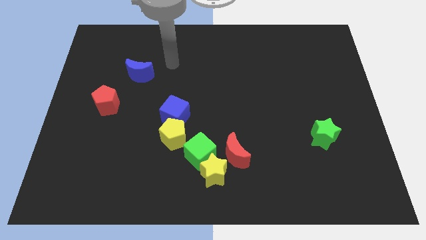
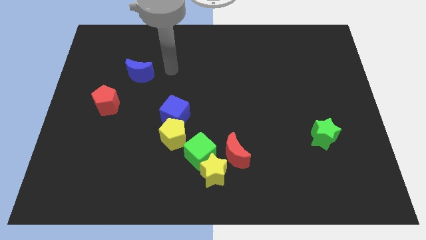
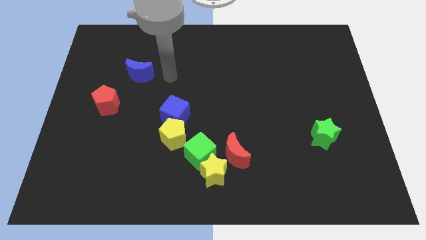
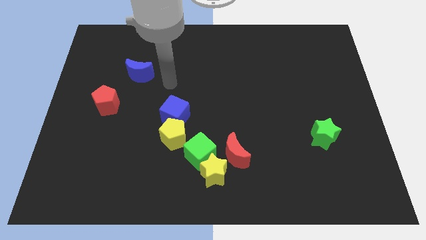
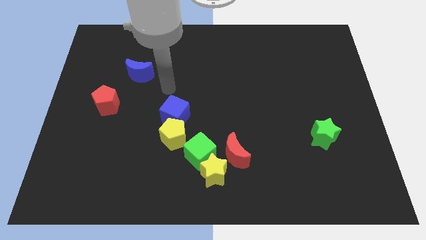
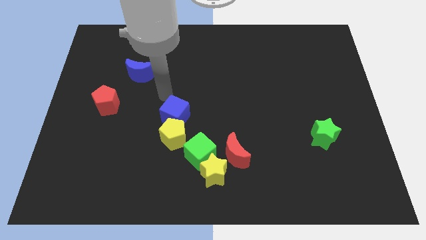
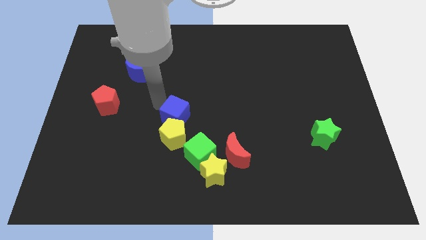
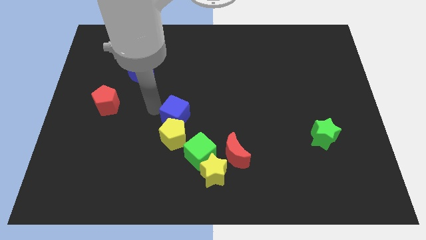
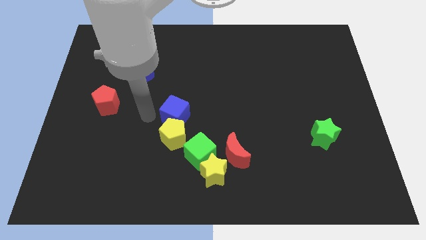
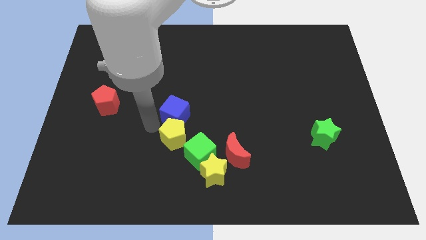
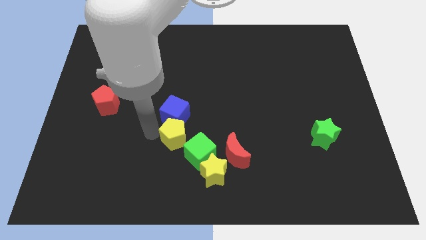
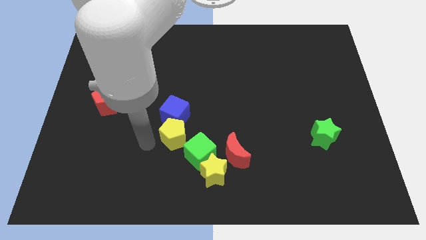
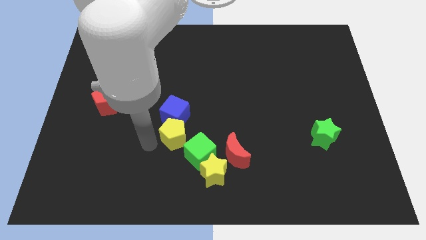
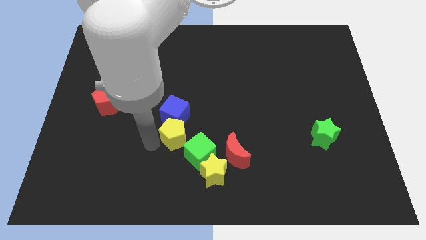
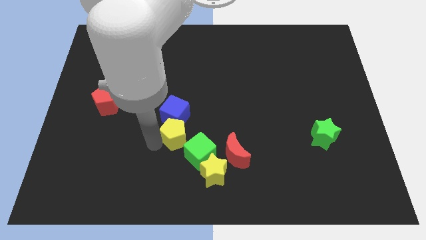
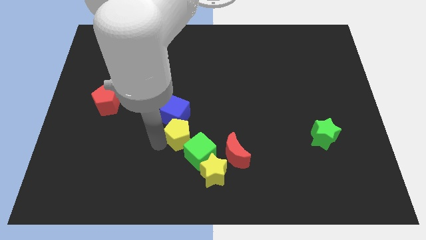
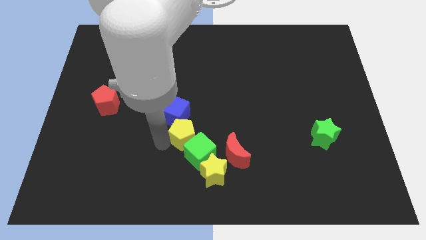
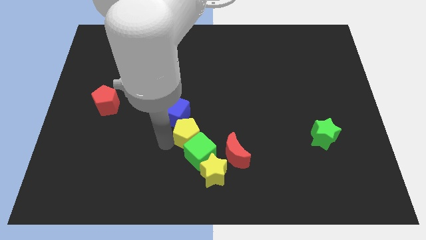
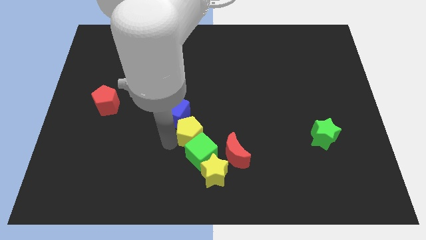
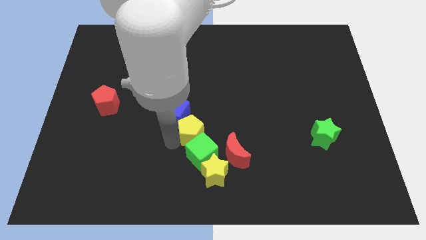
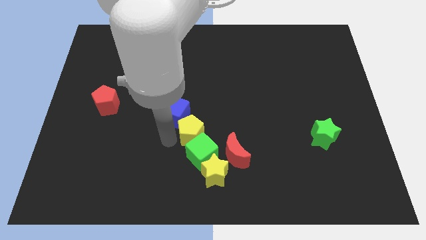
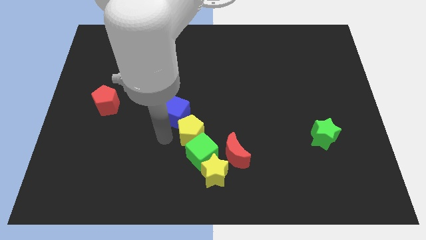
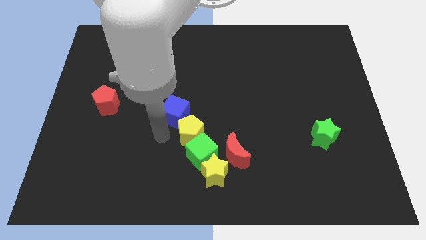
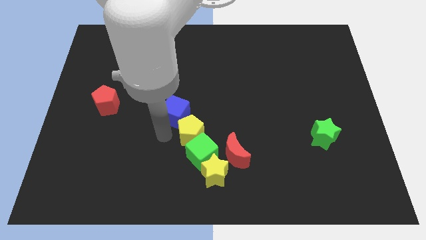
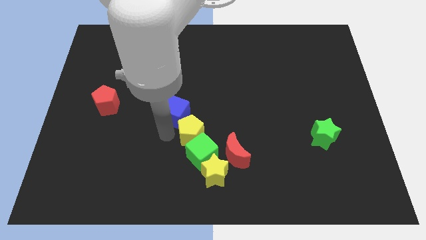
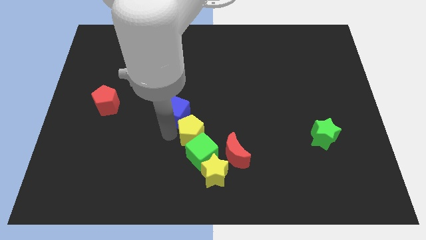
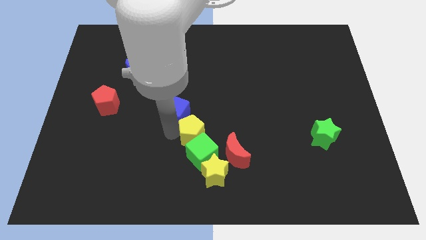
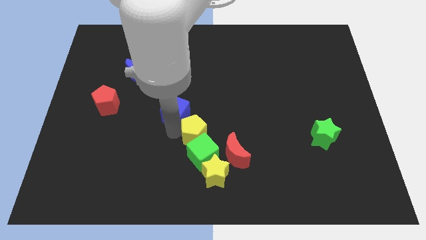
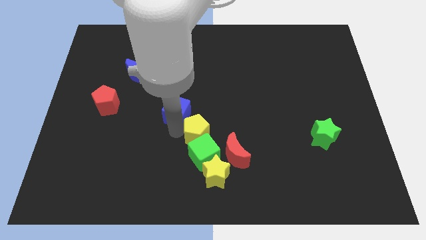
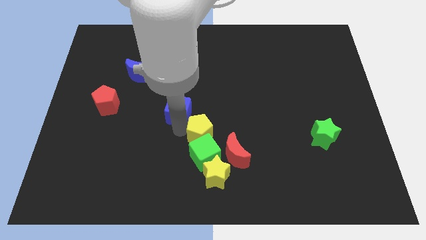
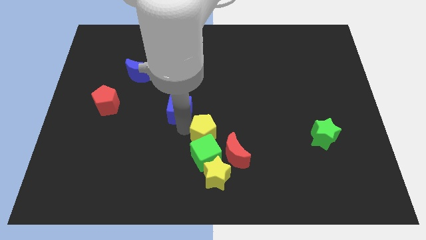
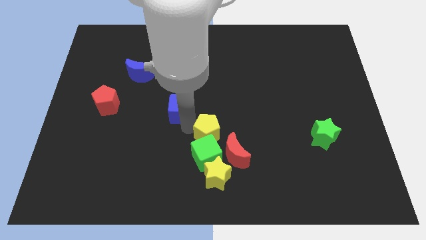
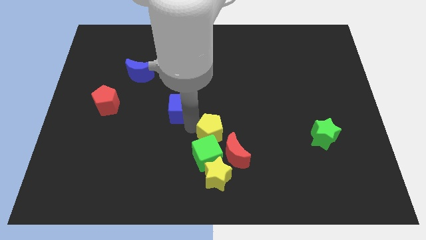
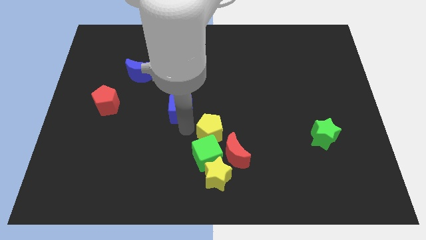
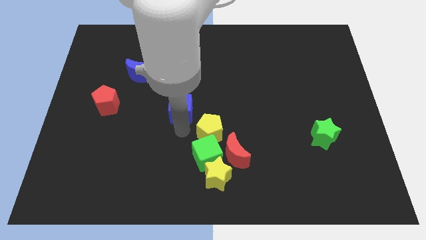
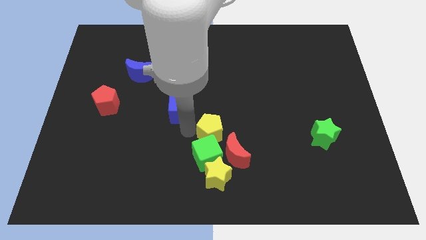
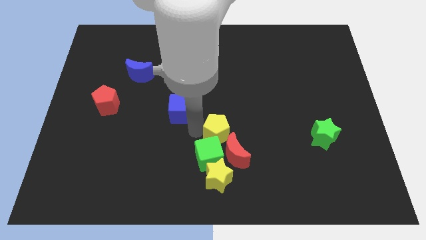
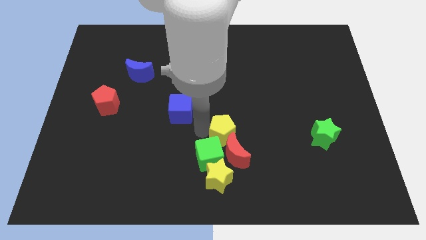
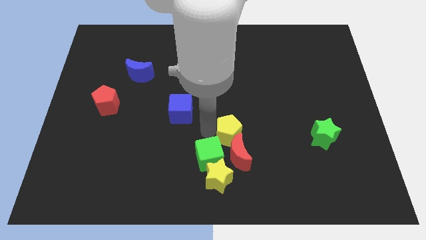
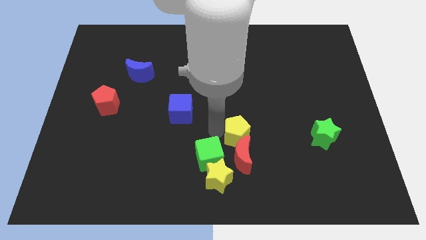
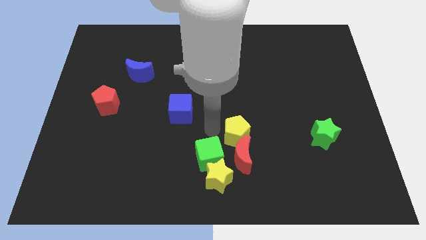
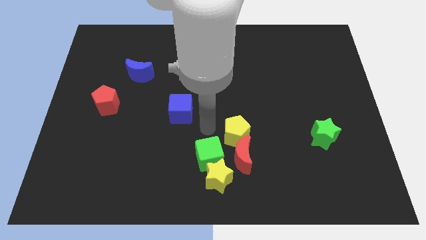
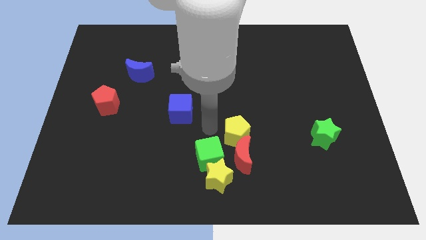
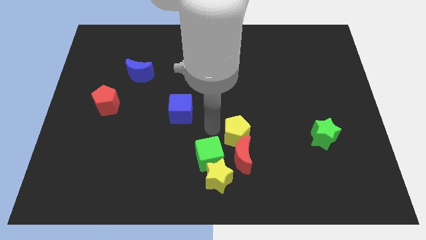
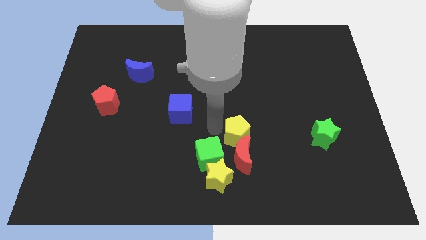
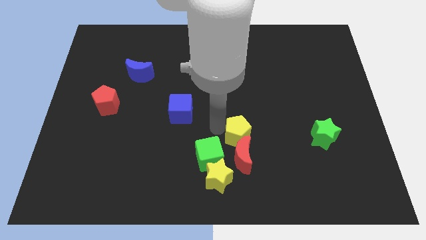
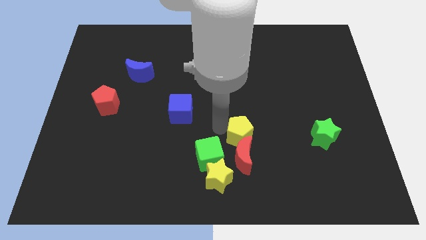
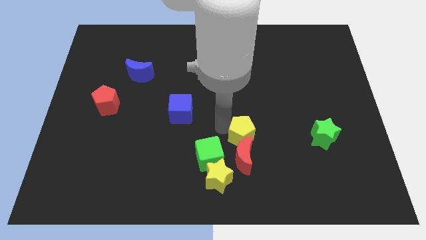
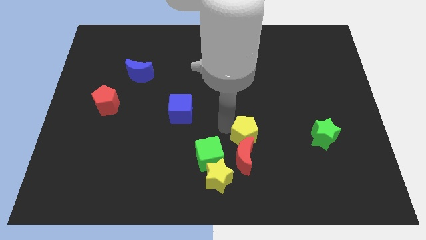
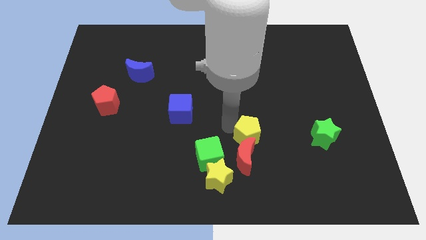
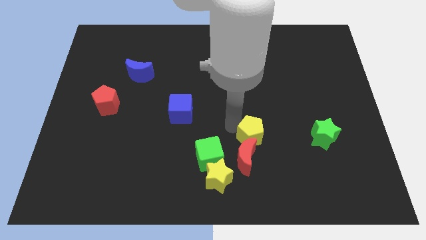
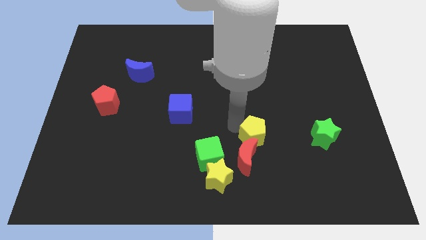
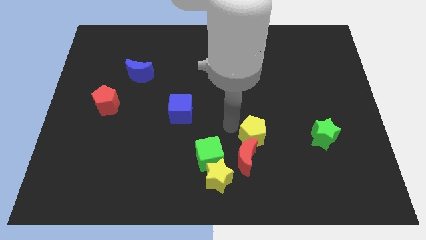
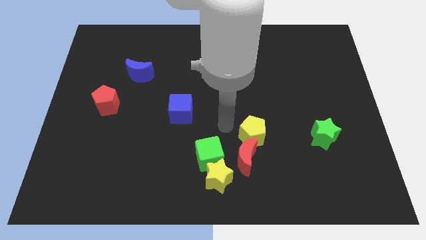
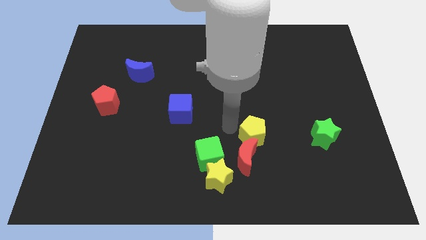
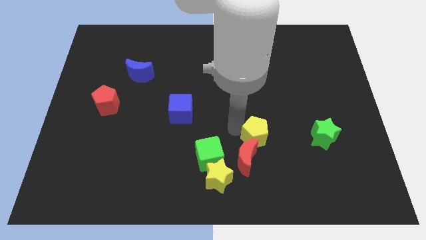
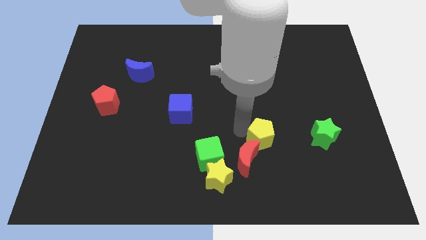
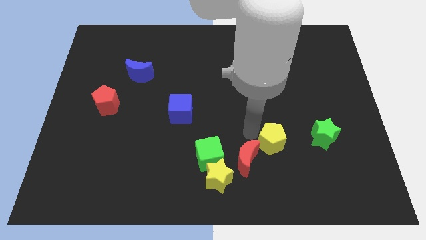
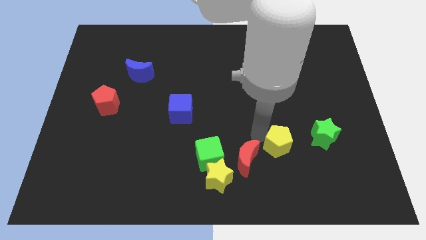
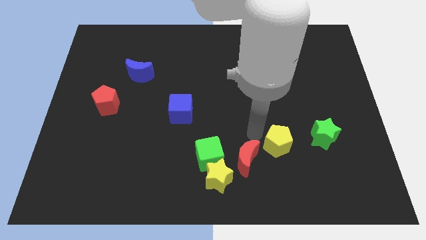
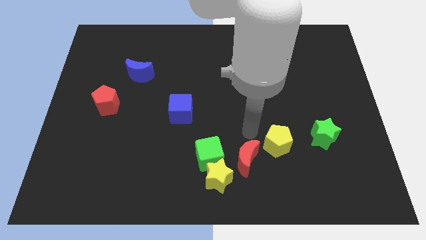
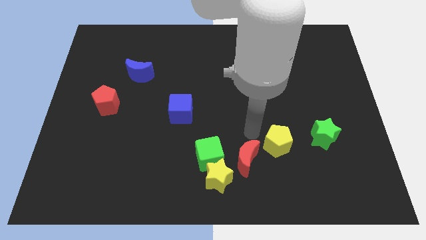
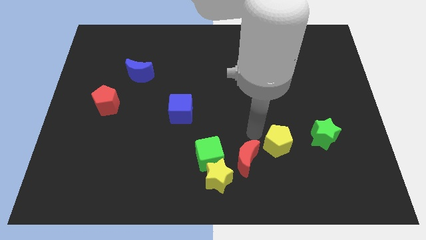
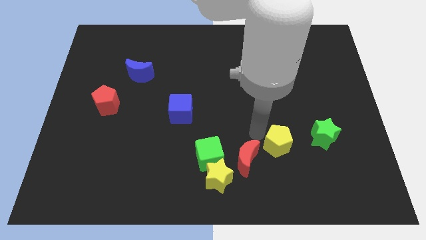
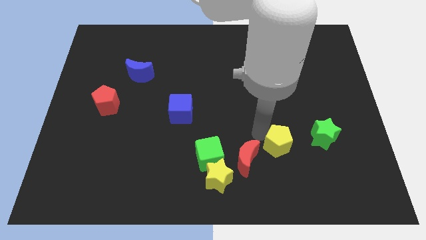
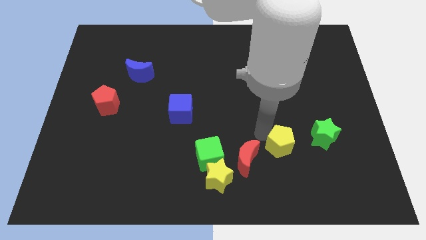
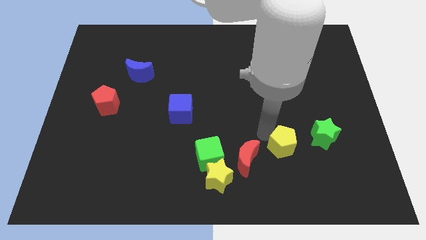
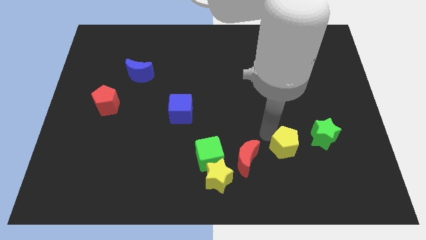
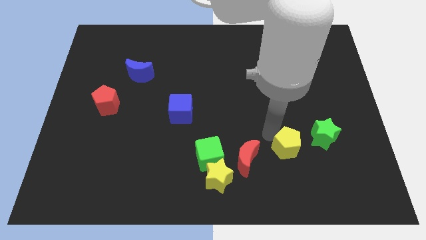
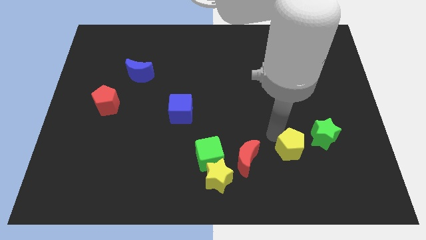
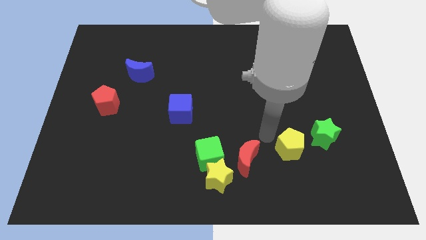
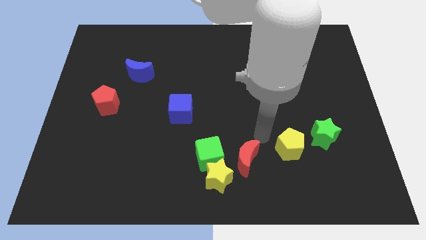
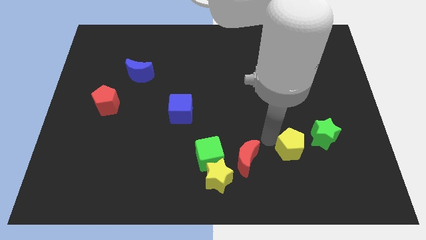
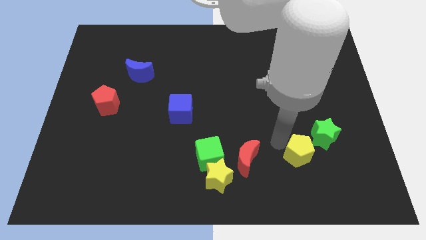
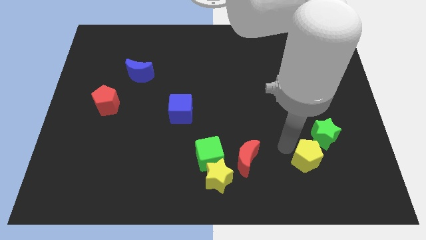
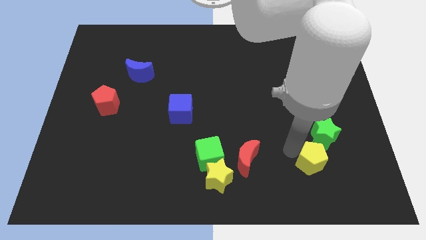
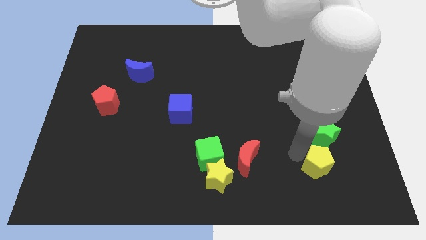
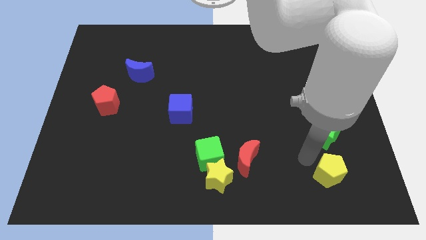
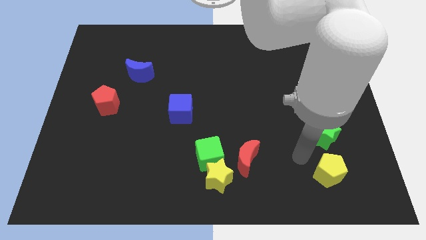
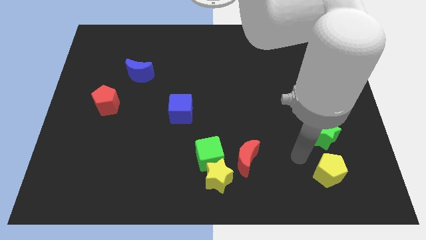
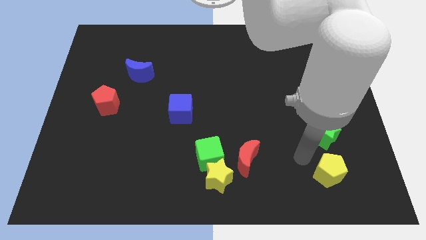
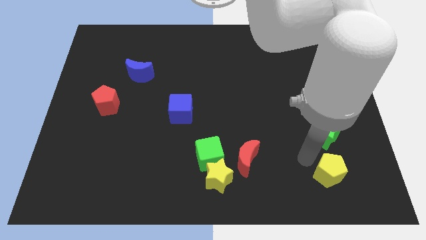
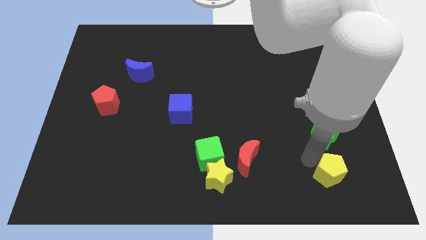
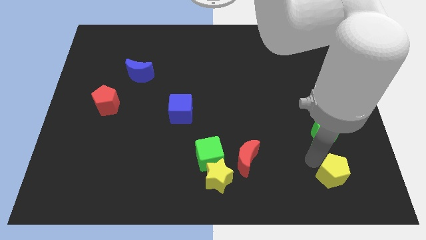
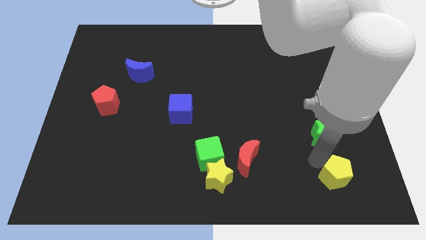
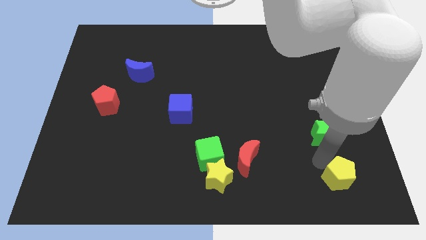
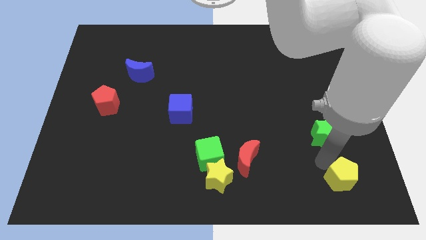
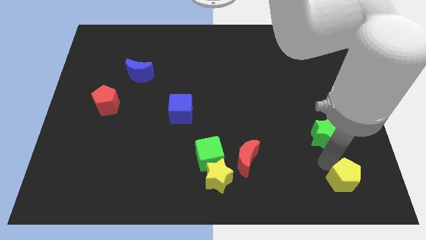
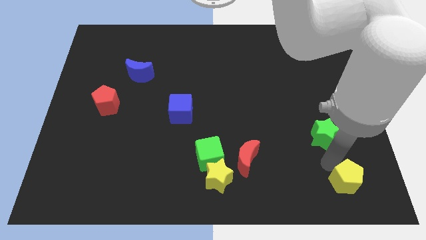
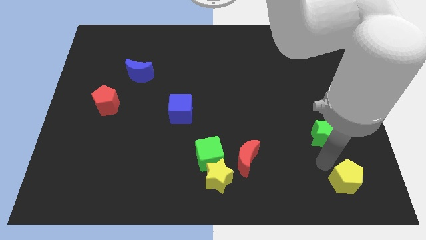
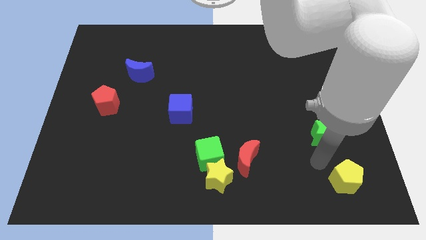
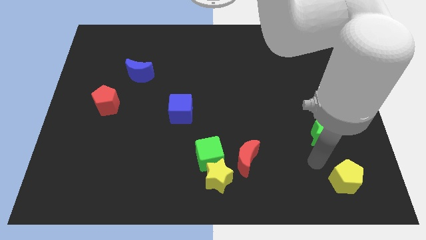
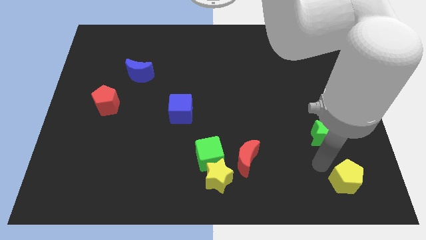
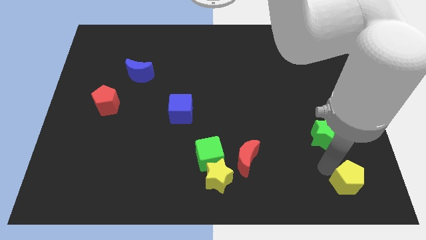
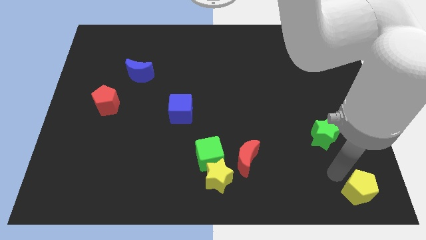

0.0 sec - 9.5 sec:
move the yellow pentagon to the bottom right corner
